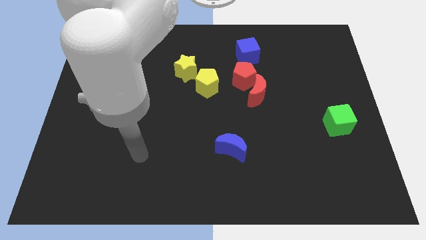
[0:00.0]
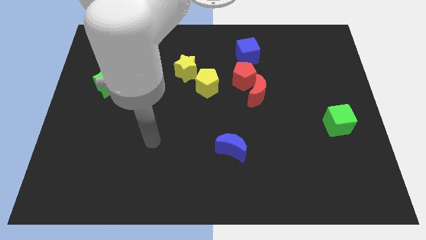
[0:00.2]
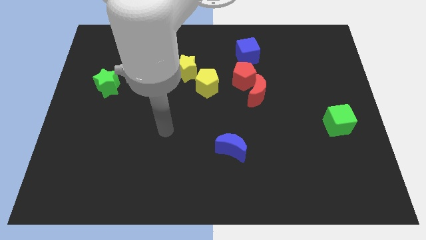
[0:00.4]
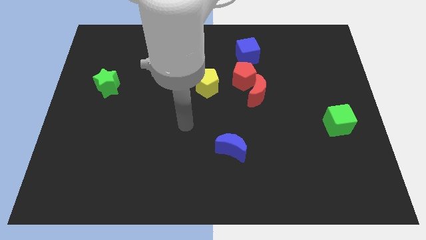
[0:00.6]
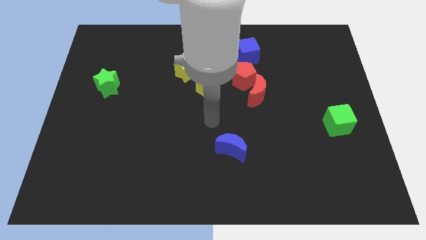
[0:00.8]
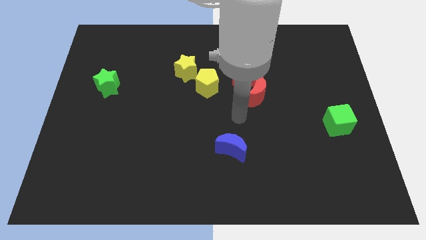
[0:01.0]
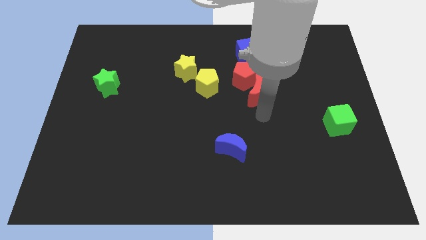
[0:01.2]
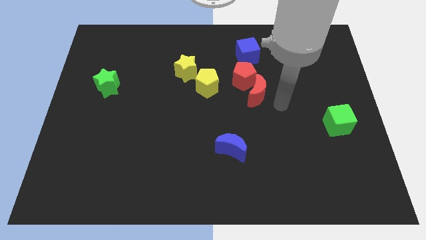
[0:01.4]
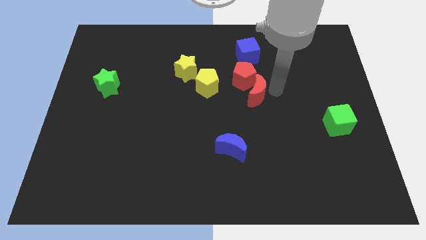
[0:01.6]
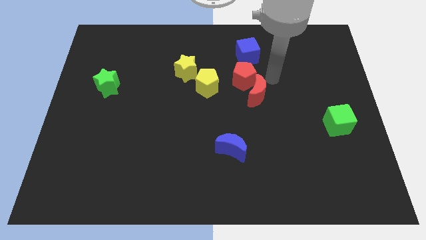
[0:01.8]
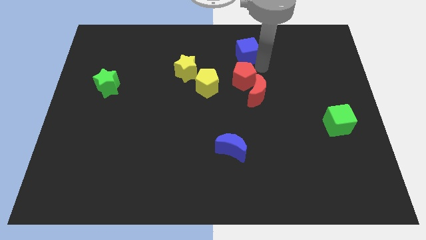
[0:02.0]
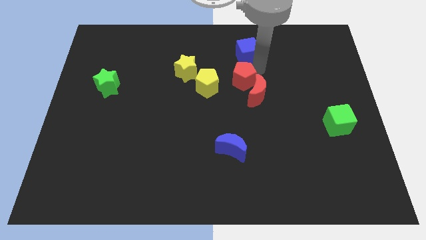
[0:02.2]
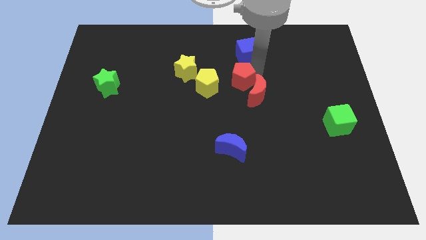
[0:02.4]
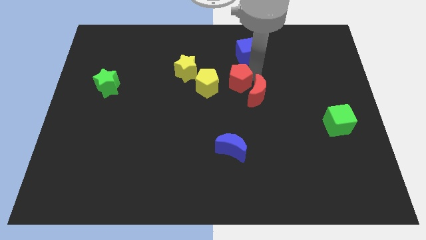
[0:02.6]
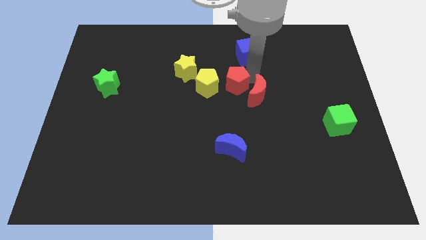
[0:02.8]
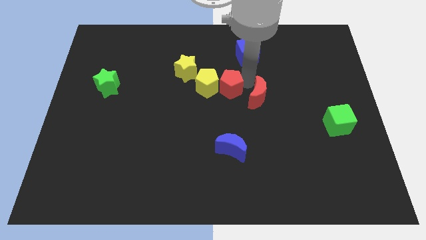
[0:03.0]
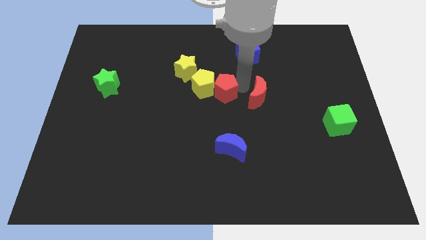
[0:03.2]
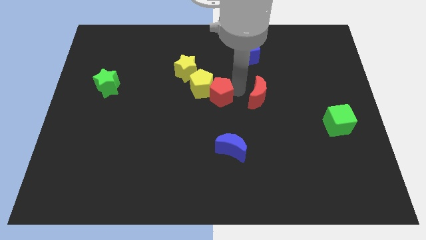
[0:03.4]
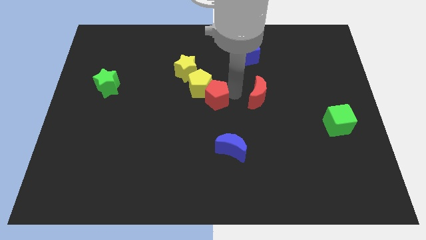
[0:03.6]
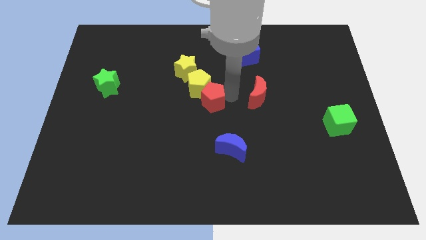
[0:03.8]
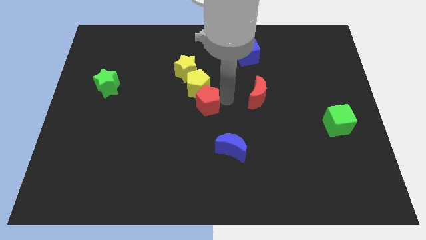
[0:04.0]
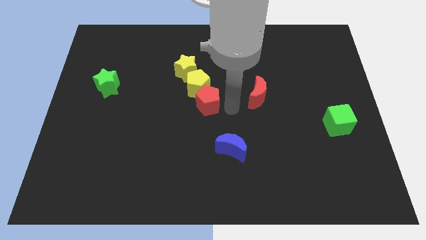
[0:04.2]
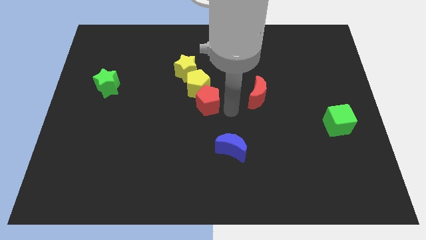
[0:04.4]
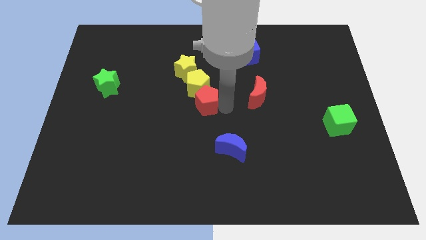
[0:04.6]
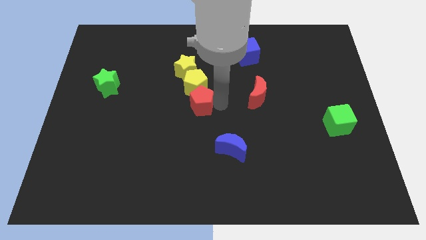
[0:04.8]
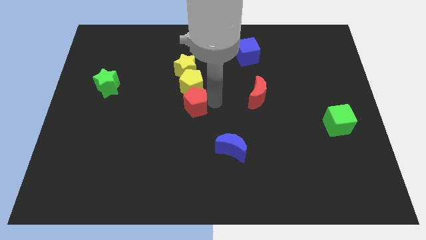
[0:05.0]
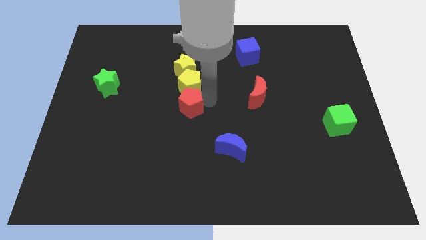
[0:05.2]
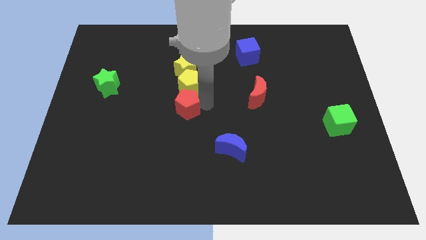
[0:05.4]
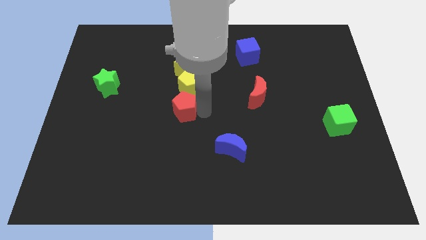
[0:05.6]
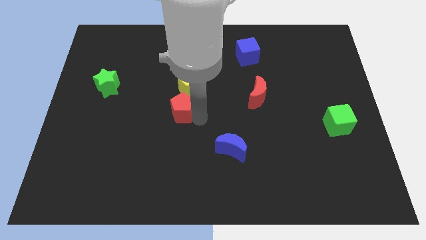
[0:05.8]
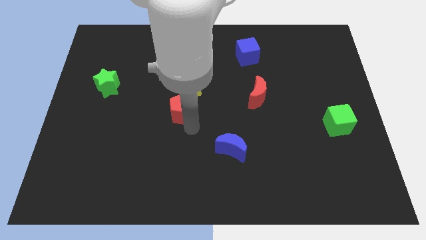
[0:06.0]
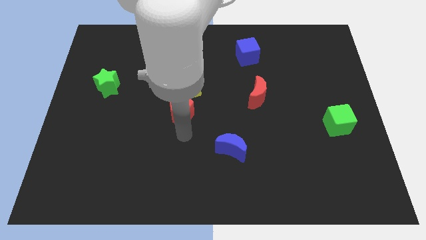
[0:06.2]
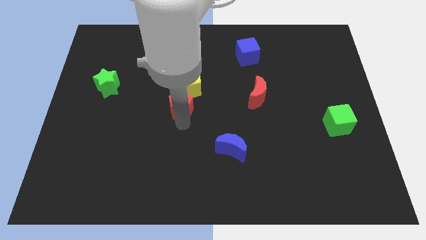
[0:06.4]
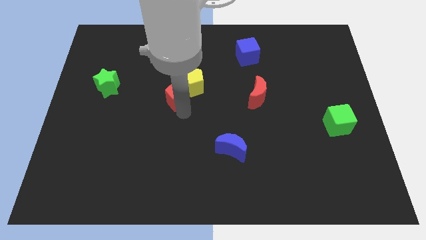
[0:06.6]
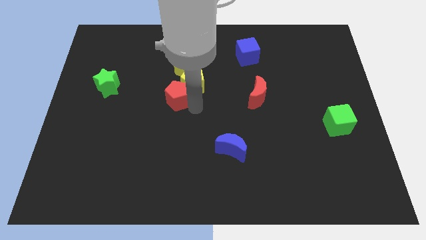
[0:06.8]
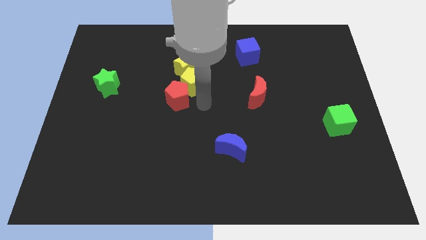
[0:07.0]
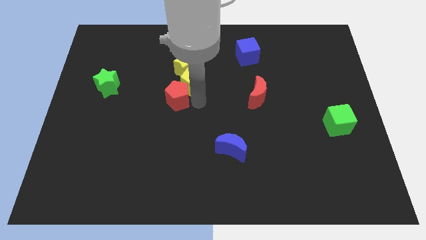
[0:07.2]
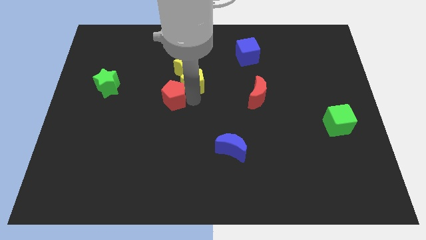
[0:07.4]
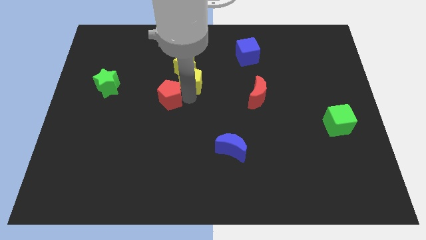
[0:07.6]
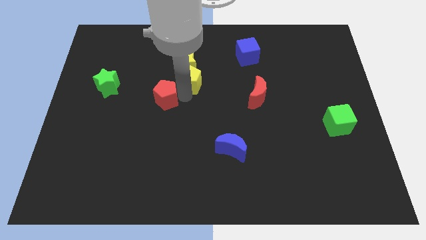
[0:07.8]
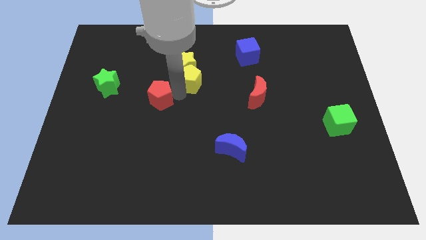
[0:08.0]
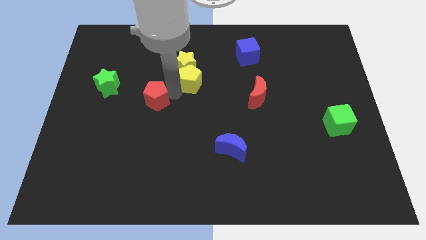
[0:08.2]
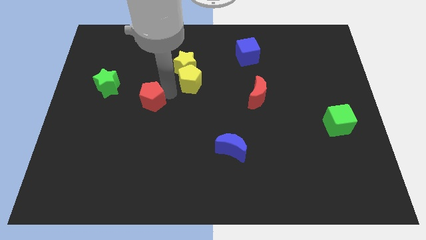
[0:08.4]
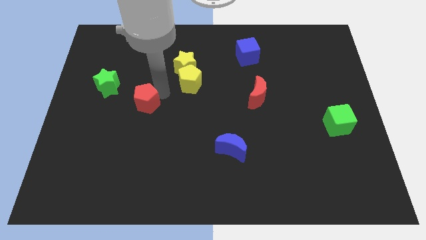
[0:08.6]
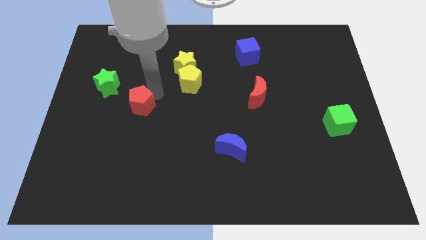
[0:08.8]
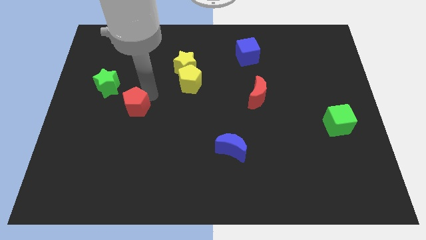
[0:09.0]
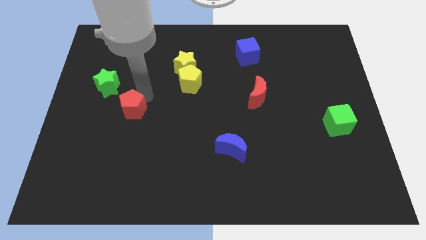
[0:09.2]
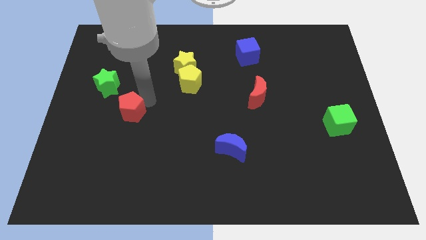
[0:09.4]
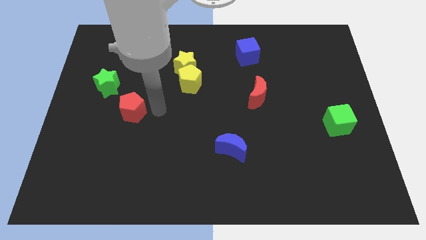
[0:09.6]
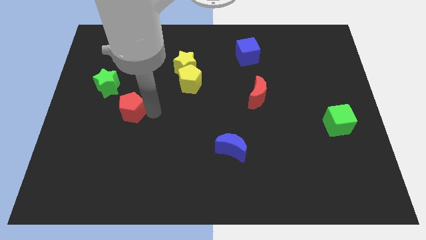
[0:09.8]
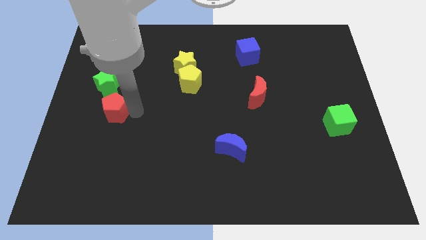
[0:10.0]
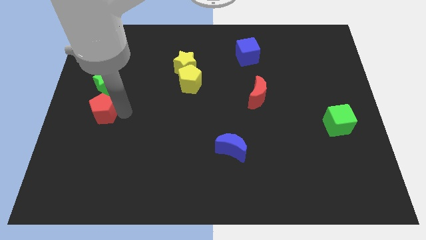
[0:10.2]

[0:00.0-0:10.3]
move the red pentagon to the left side

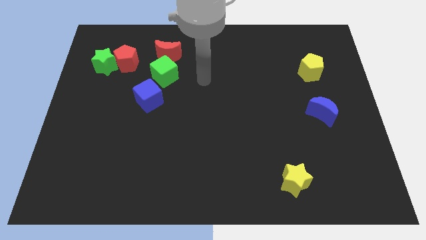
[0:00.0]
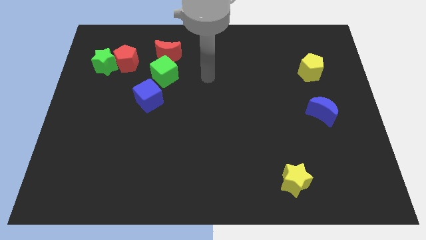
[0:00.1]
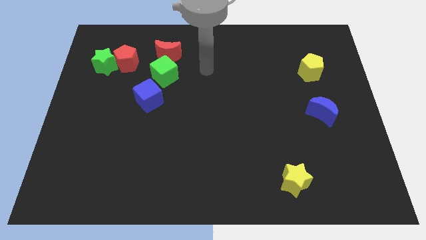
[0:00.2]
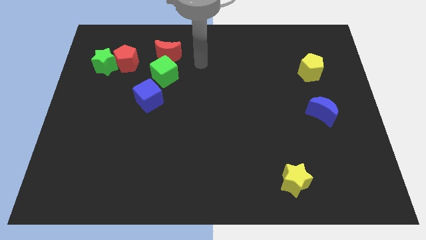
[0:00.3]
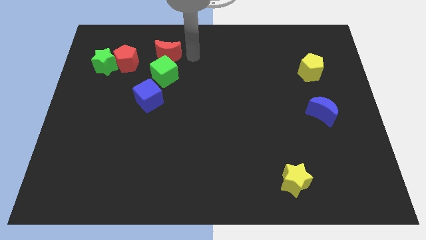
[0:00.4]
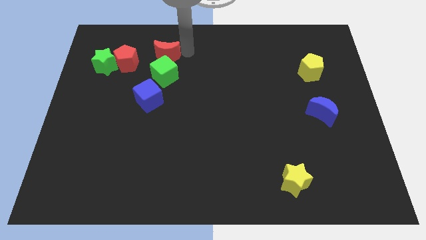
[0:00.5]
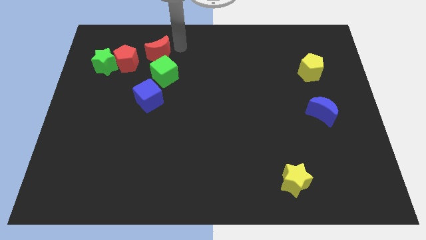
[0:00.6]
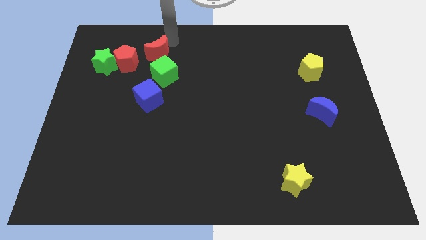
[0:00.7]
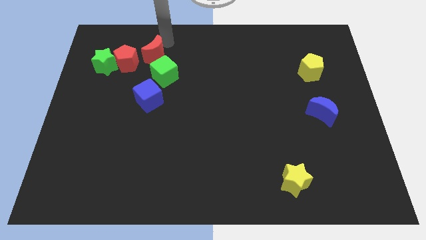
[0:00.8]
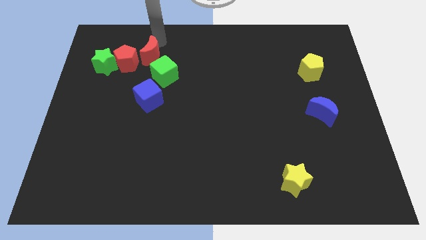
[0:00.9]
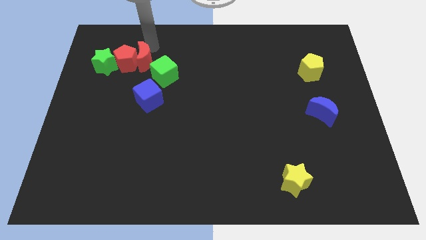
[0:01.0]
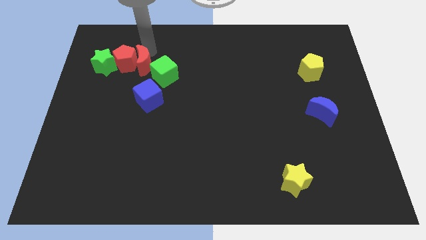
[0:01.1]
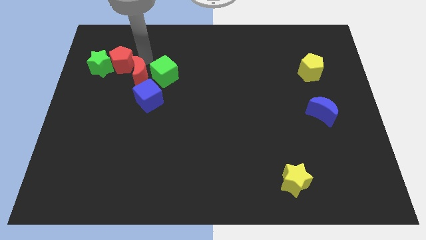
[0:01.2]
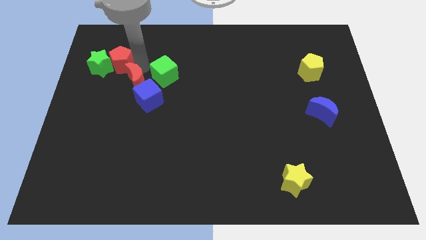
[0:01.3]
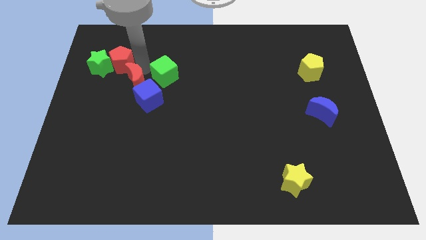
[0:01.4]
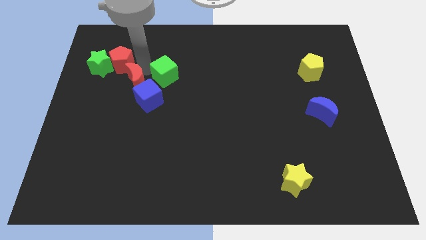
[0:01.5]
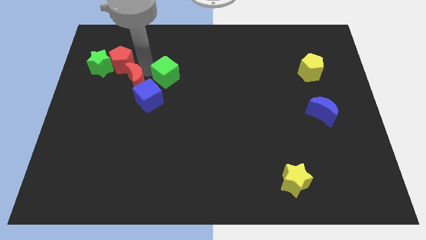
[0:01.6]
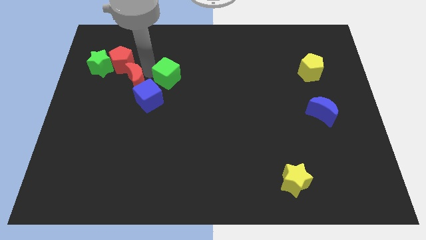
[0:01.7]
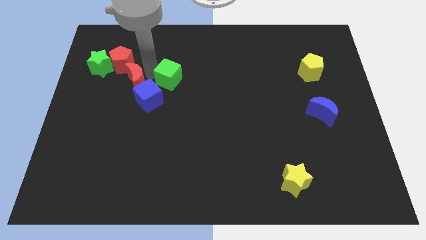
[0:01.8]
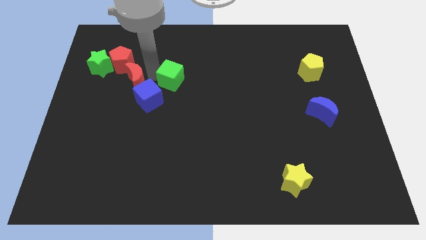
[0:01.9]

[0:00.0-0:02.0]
slide the green cube to the middle
